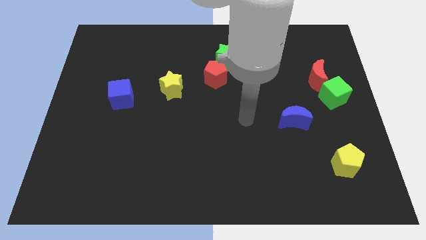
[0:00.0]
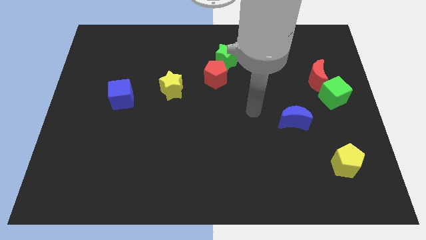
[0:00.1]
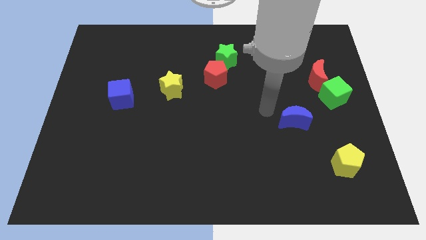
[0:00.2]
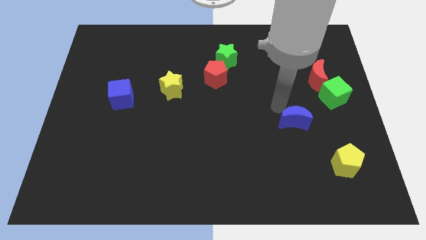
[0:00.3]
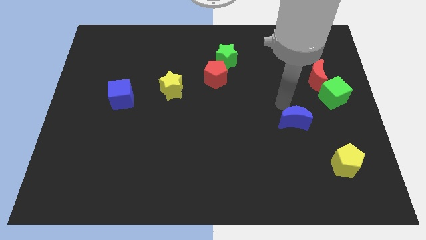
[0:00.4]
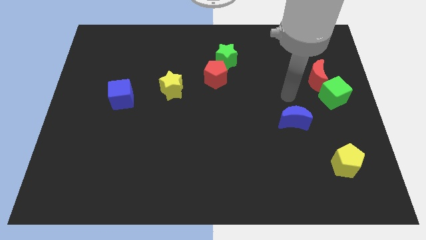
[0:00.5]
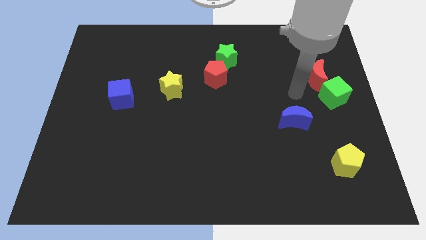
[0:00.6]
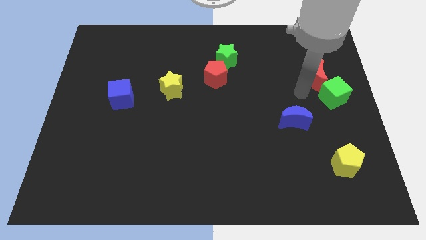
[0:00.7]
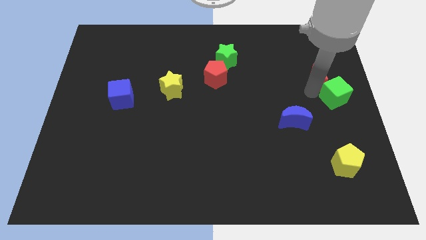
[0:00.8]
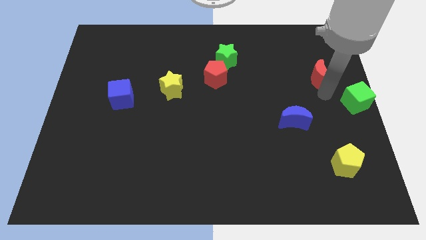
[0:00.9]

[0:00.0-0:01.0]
pull the red moon apart from the green cube

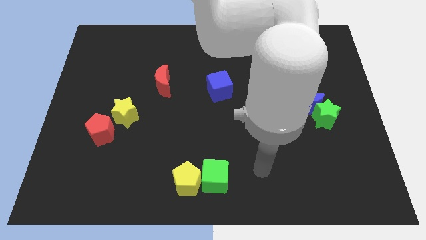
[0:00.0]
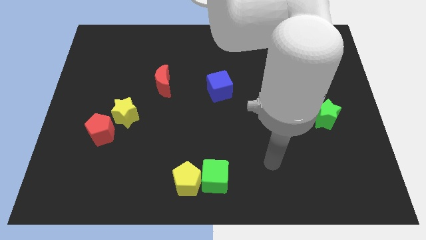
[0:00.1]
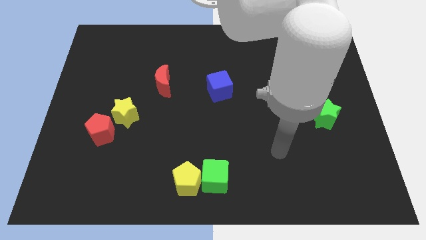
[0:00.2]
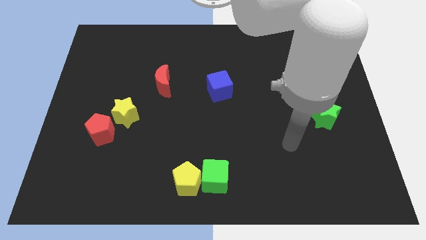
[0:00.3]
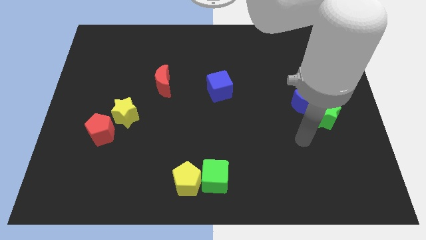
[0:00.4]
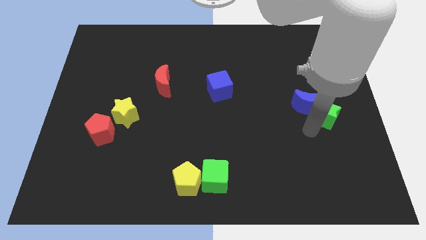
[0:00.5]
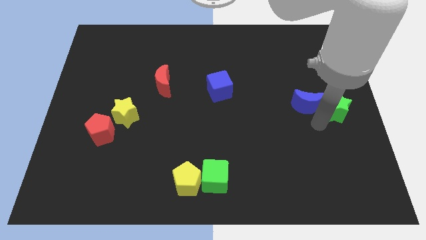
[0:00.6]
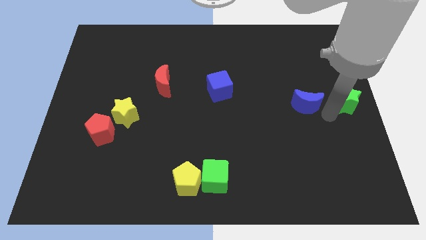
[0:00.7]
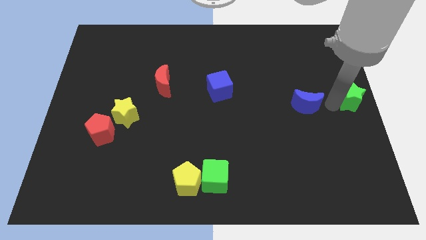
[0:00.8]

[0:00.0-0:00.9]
separate the blue moon from the green star

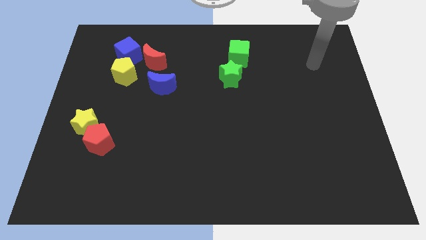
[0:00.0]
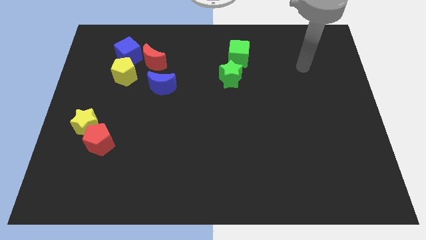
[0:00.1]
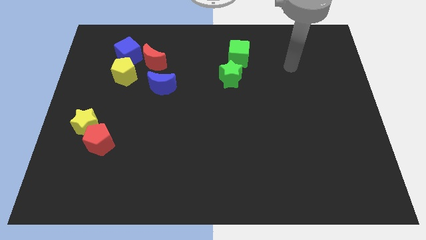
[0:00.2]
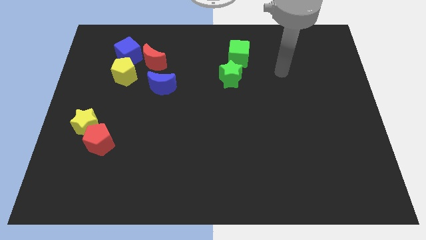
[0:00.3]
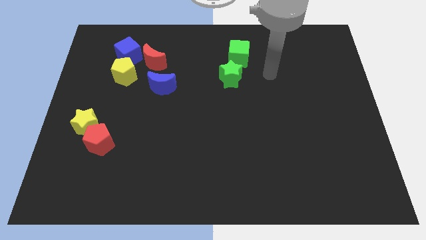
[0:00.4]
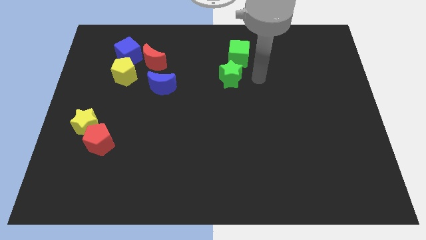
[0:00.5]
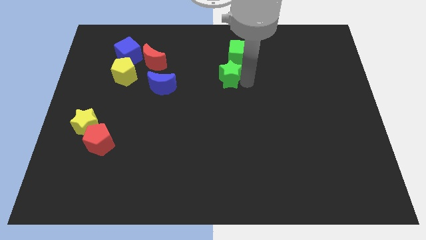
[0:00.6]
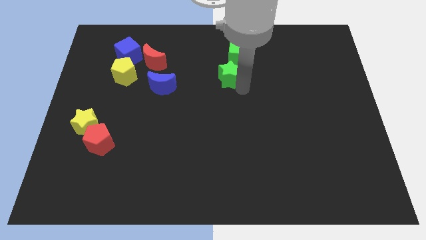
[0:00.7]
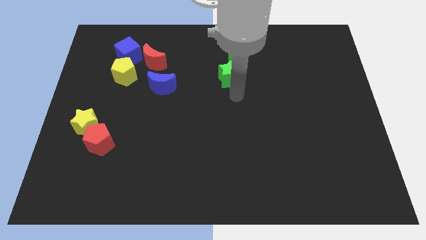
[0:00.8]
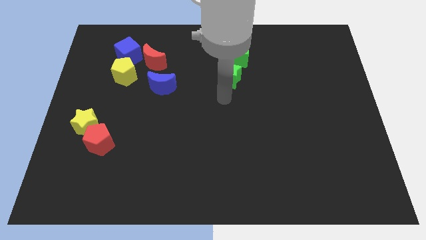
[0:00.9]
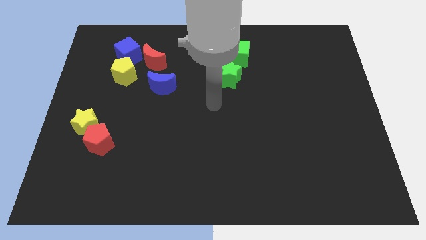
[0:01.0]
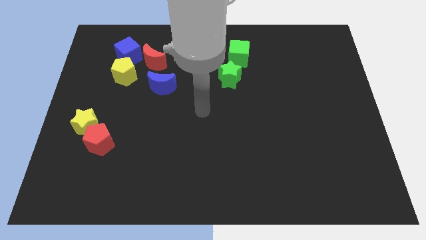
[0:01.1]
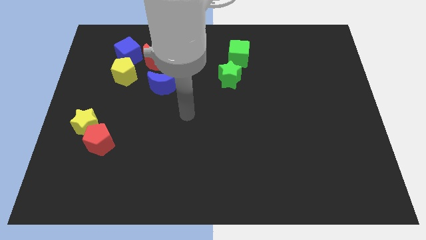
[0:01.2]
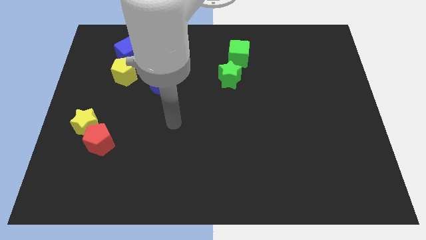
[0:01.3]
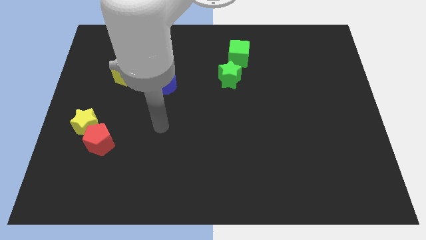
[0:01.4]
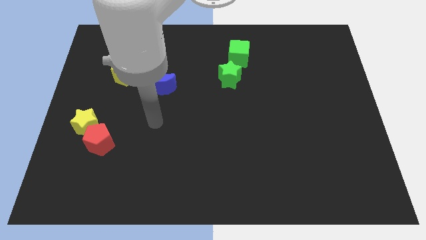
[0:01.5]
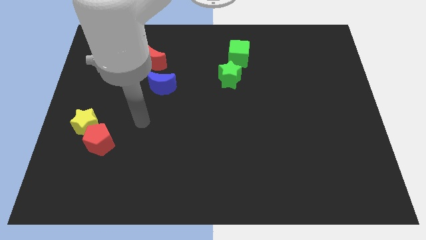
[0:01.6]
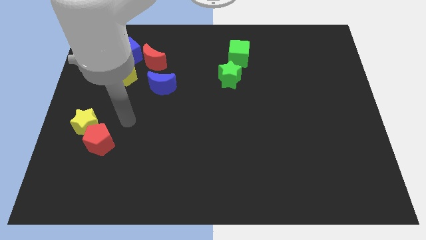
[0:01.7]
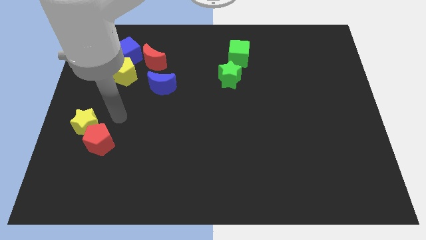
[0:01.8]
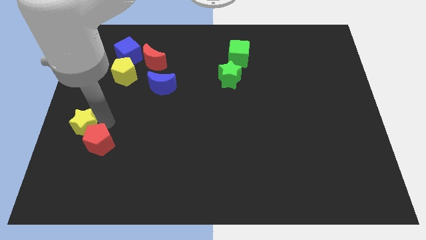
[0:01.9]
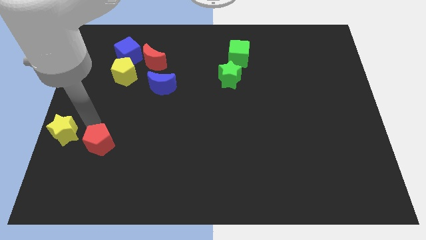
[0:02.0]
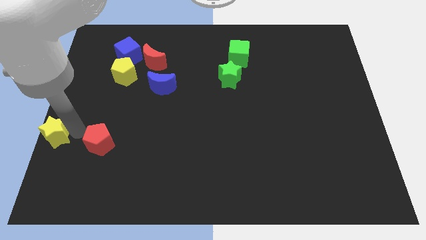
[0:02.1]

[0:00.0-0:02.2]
pull the red pentagon apart from the yellow star

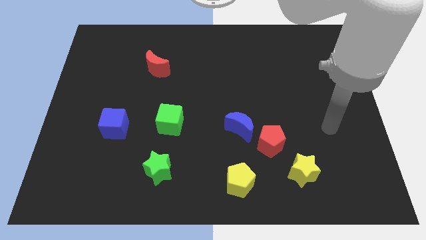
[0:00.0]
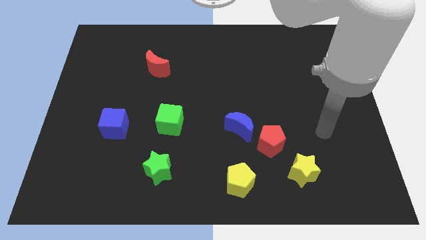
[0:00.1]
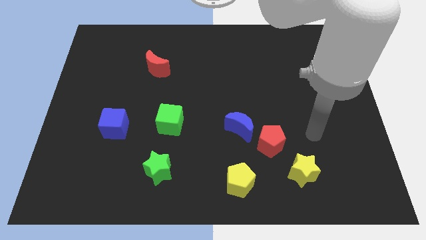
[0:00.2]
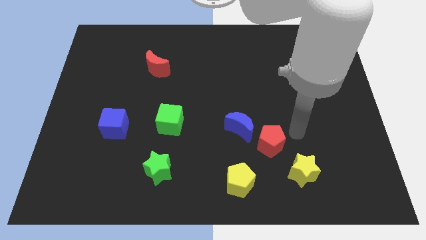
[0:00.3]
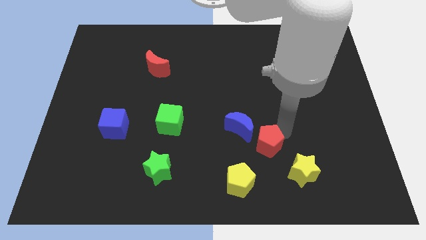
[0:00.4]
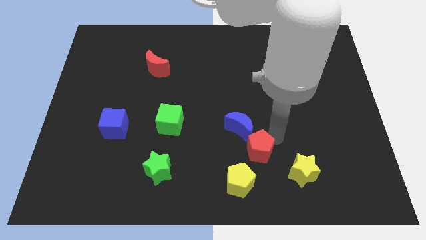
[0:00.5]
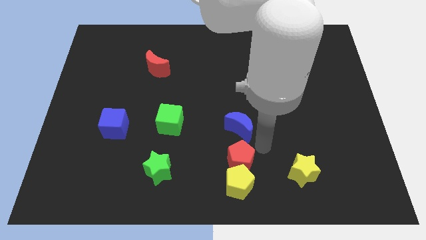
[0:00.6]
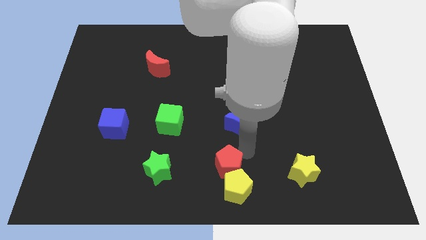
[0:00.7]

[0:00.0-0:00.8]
move the blue moon away from the red pentagon

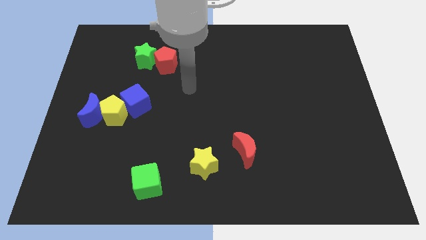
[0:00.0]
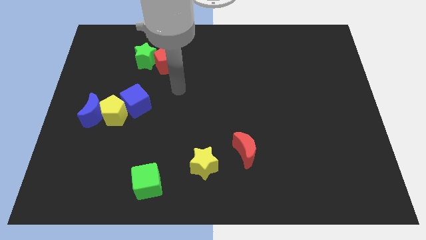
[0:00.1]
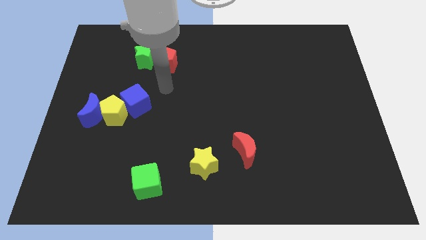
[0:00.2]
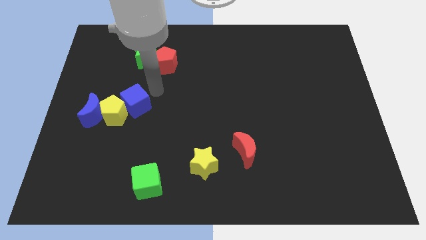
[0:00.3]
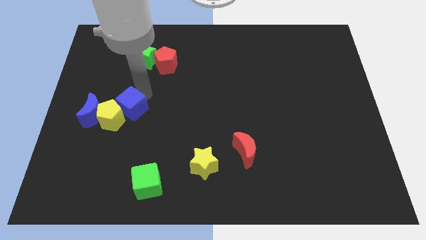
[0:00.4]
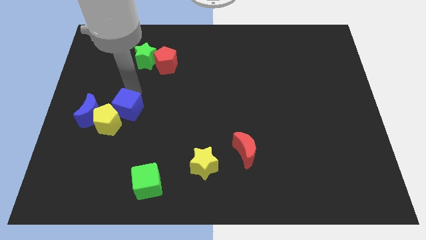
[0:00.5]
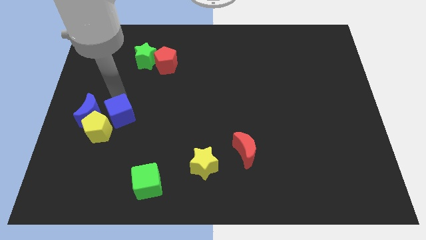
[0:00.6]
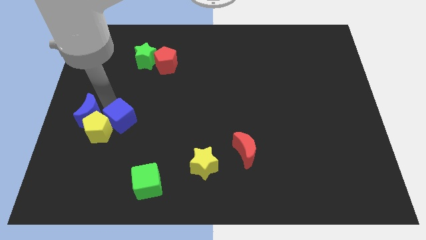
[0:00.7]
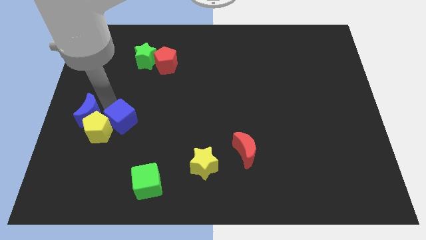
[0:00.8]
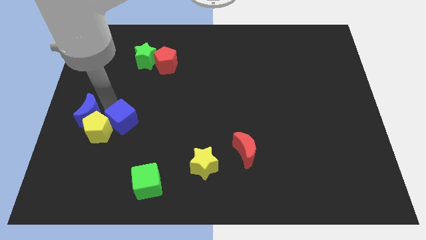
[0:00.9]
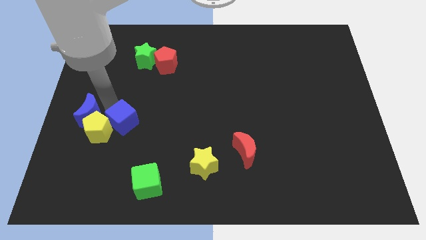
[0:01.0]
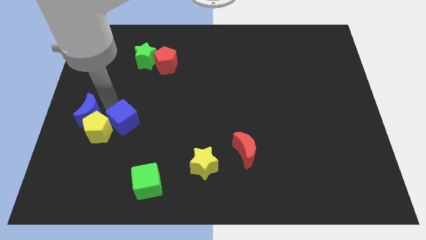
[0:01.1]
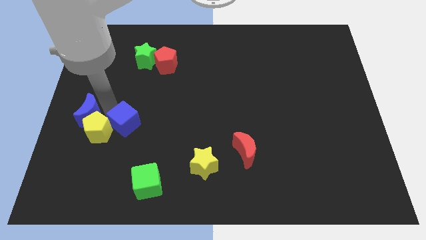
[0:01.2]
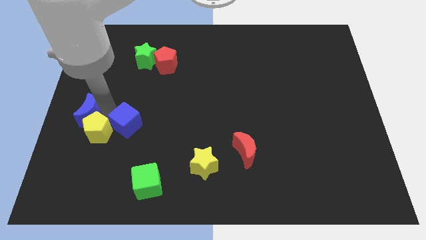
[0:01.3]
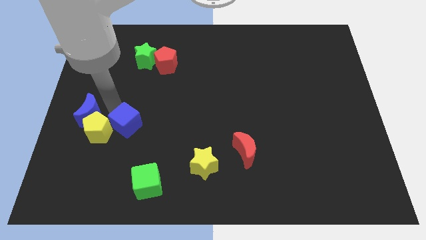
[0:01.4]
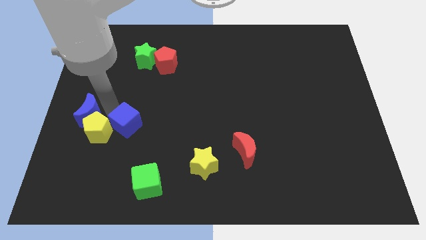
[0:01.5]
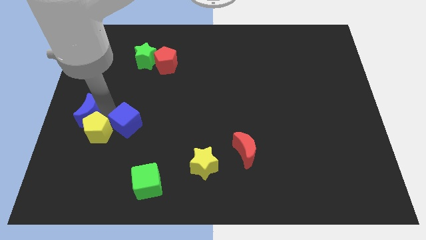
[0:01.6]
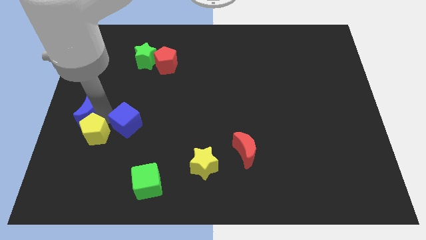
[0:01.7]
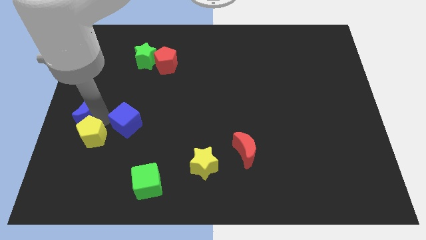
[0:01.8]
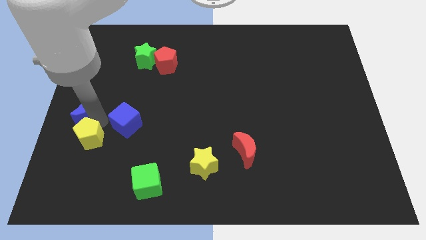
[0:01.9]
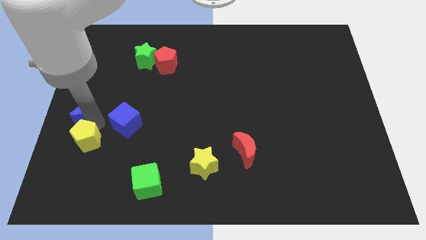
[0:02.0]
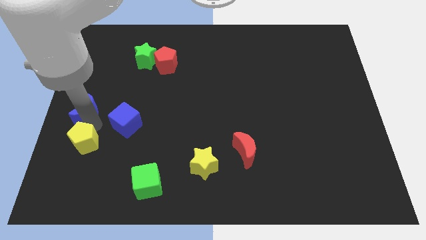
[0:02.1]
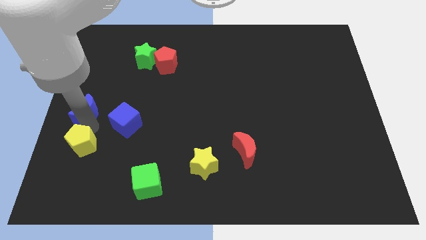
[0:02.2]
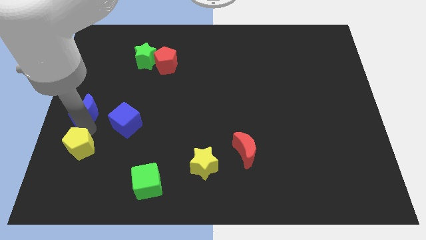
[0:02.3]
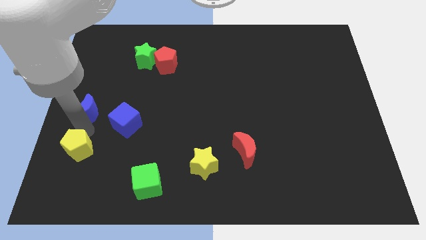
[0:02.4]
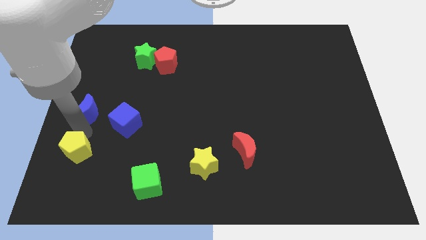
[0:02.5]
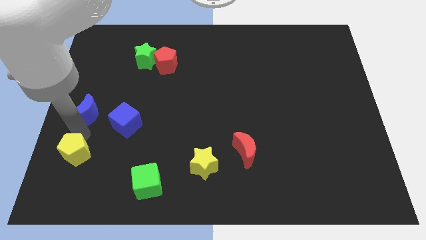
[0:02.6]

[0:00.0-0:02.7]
pull the yellow pentagon apart from the blue moon and blue cube

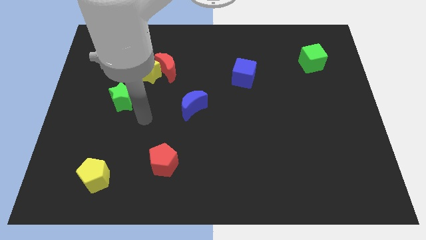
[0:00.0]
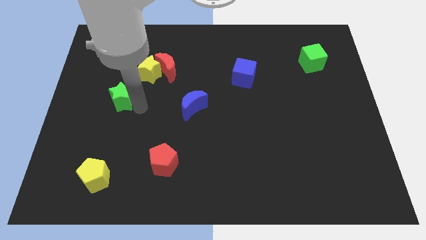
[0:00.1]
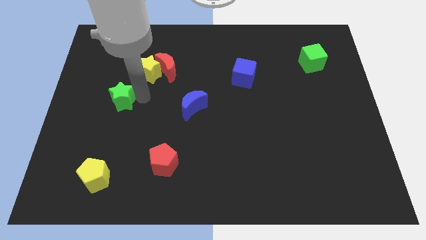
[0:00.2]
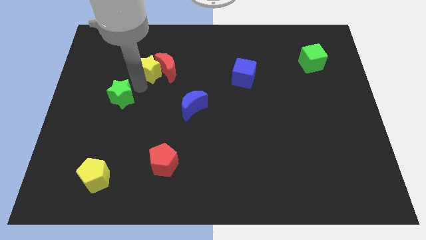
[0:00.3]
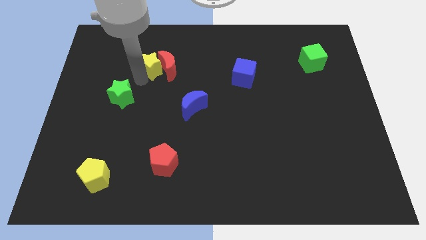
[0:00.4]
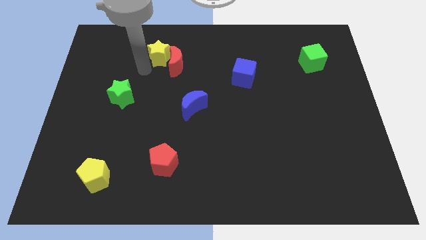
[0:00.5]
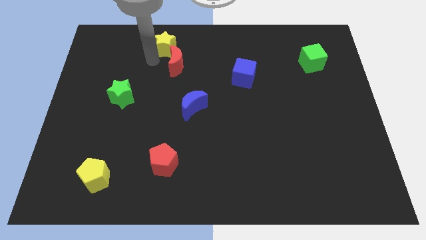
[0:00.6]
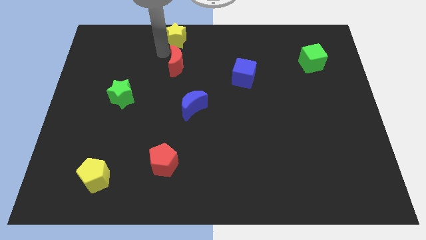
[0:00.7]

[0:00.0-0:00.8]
move the red moon away from the yellow star

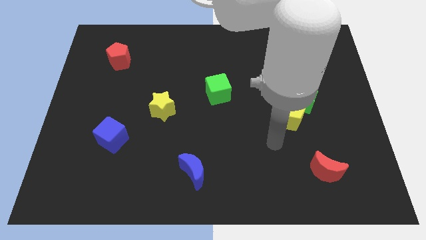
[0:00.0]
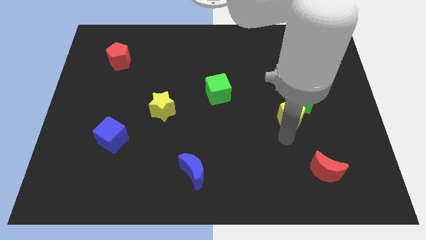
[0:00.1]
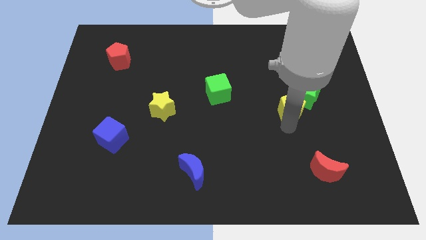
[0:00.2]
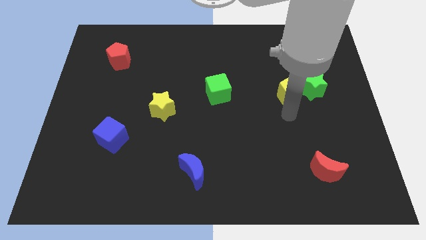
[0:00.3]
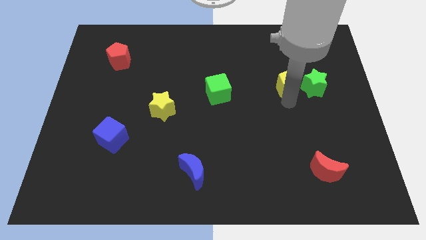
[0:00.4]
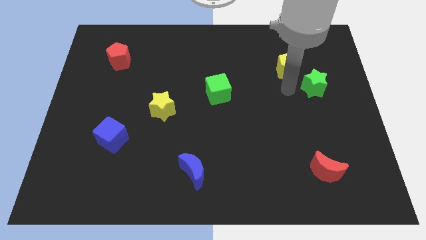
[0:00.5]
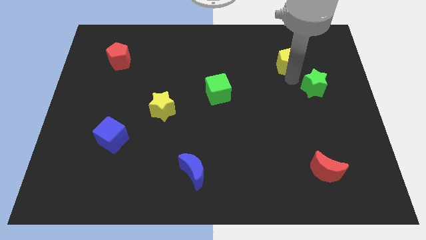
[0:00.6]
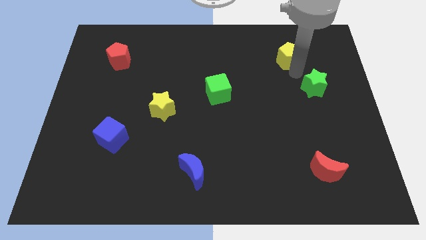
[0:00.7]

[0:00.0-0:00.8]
separate the green star from the yellow pentagon
